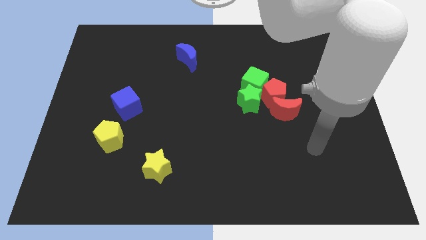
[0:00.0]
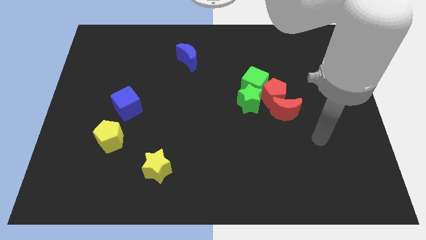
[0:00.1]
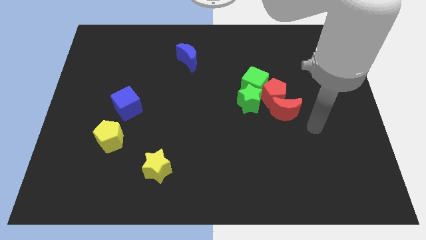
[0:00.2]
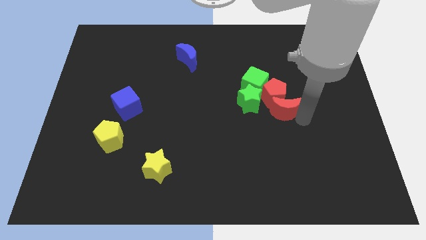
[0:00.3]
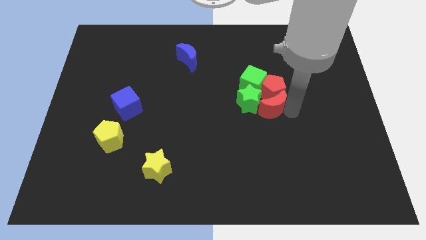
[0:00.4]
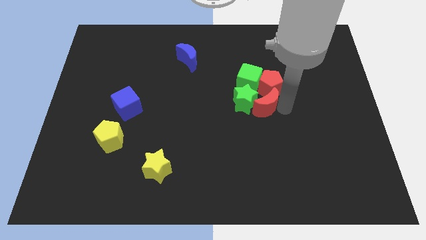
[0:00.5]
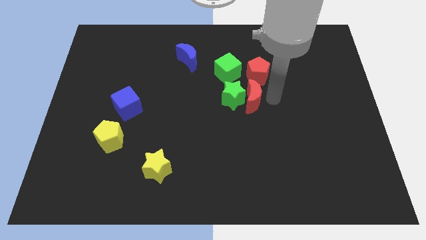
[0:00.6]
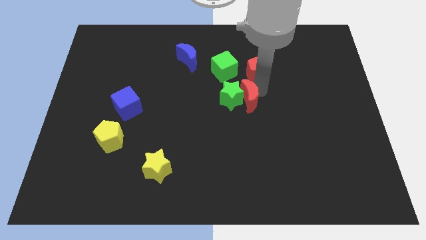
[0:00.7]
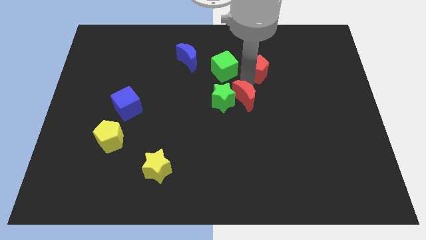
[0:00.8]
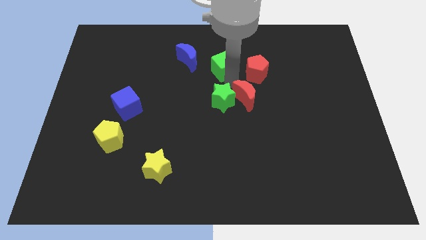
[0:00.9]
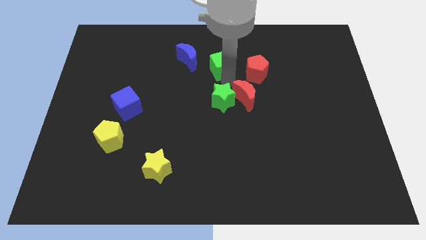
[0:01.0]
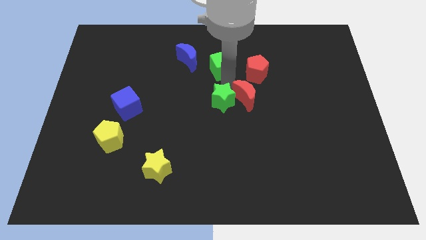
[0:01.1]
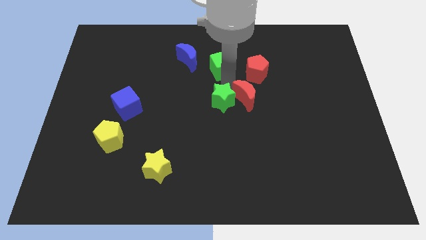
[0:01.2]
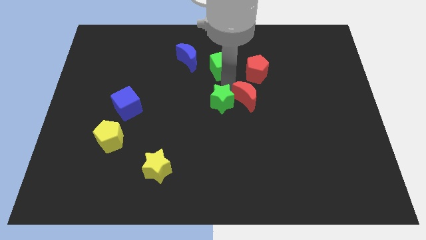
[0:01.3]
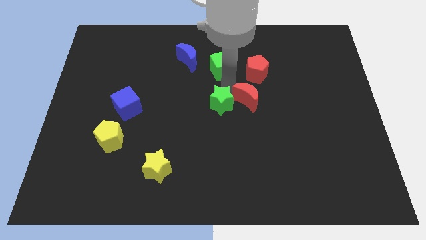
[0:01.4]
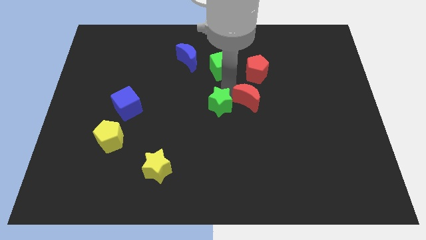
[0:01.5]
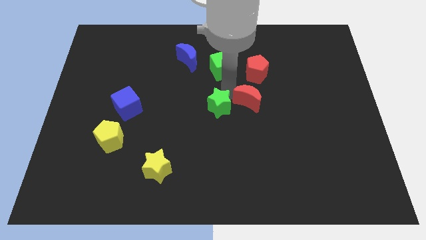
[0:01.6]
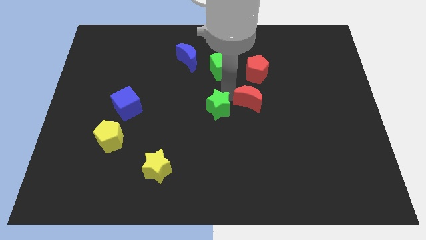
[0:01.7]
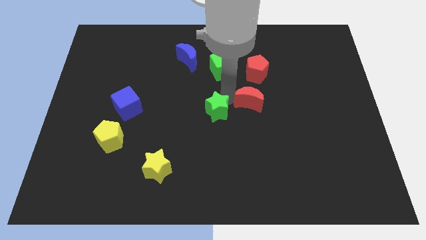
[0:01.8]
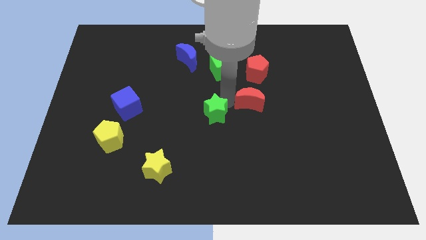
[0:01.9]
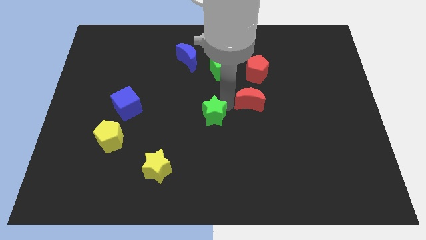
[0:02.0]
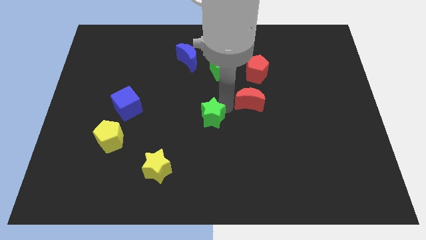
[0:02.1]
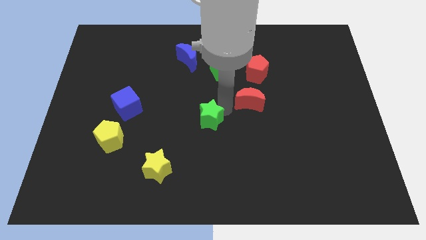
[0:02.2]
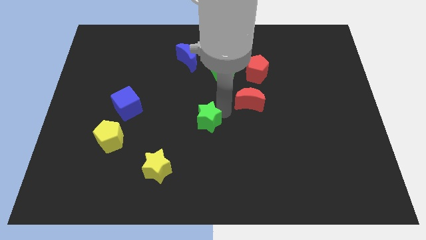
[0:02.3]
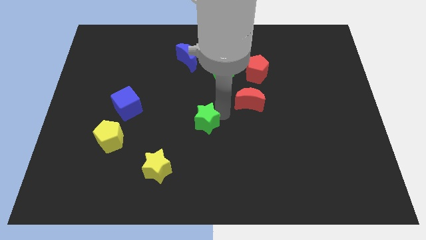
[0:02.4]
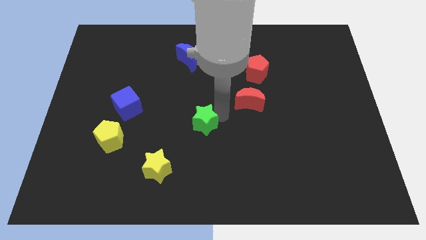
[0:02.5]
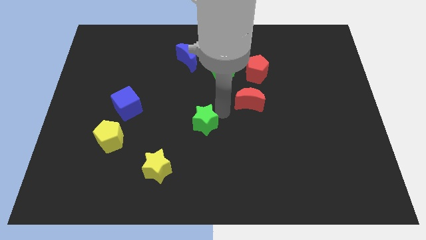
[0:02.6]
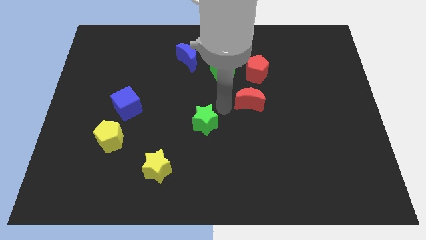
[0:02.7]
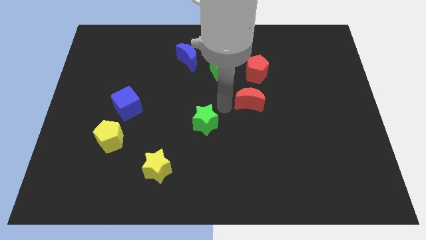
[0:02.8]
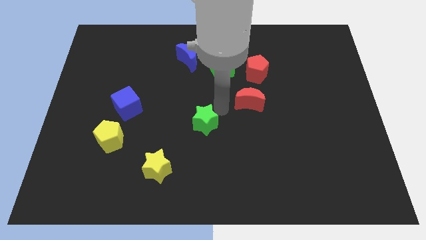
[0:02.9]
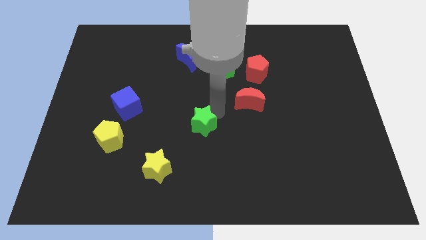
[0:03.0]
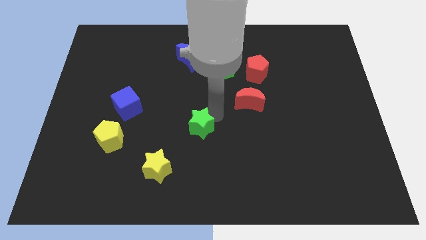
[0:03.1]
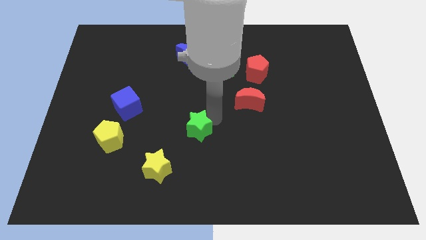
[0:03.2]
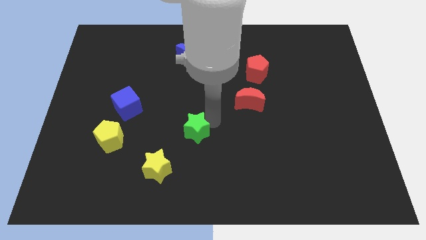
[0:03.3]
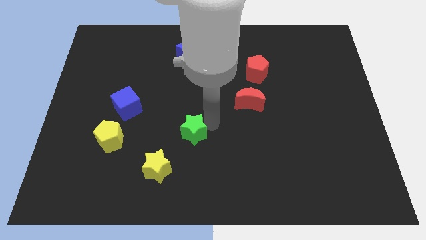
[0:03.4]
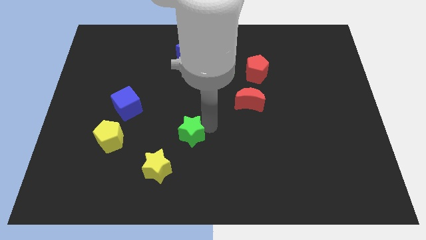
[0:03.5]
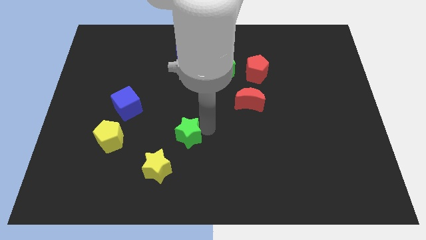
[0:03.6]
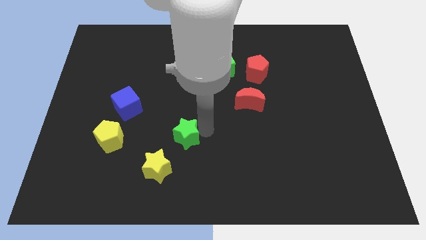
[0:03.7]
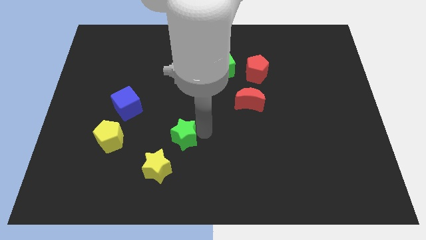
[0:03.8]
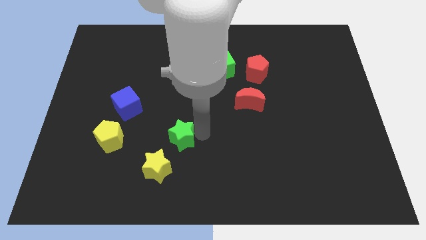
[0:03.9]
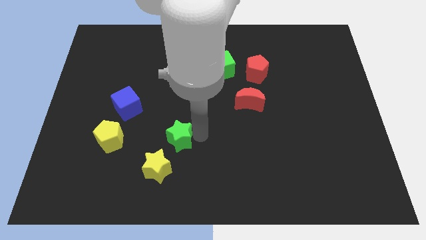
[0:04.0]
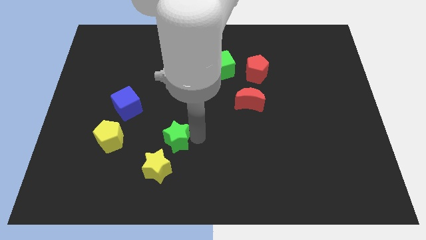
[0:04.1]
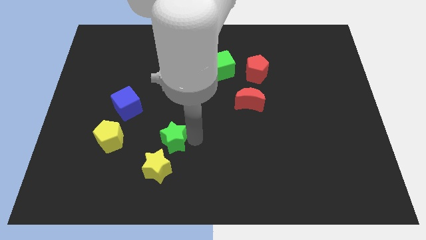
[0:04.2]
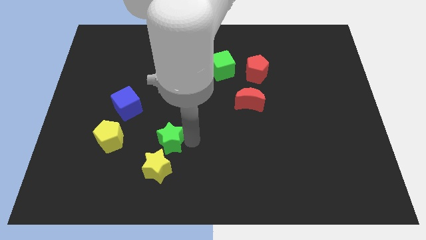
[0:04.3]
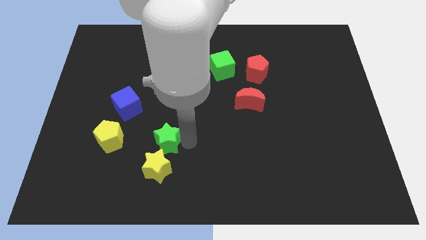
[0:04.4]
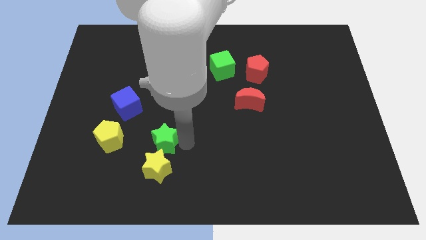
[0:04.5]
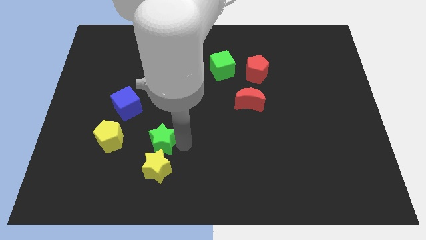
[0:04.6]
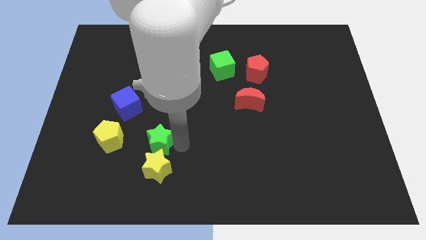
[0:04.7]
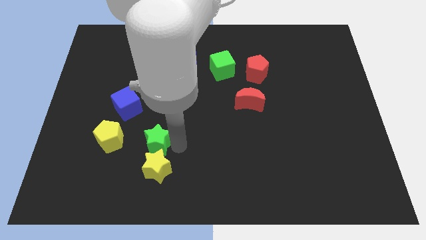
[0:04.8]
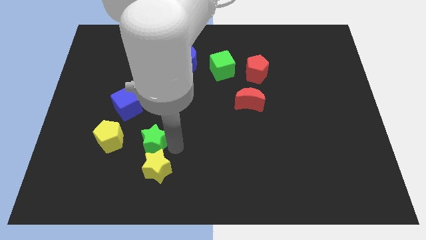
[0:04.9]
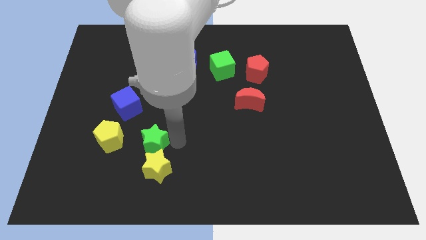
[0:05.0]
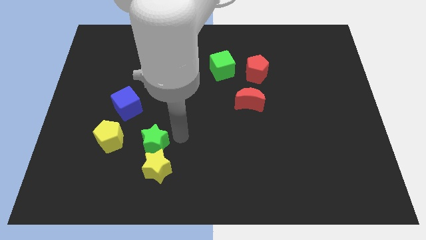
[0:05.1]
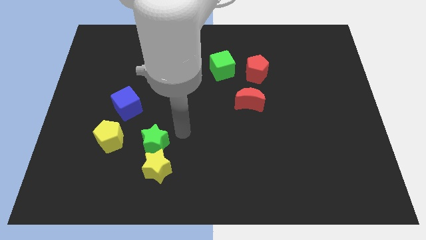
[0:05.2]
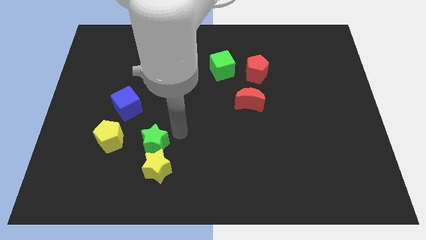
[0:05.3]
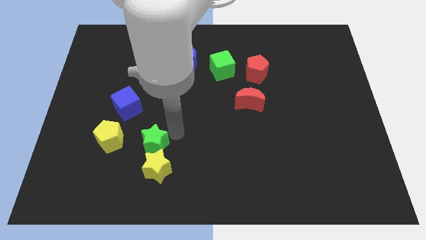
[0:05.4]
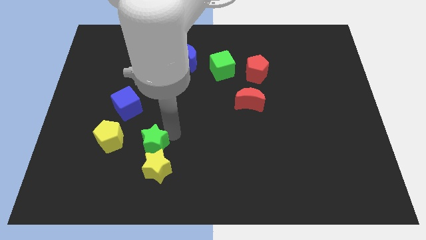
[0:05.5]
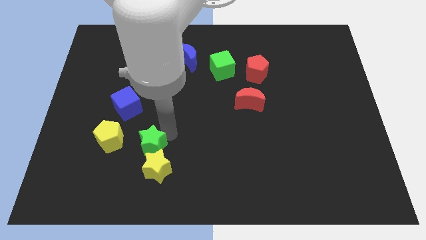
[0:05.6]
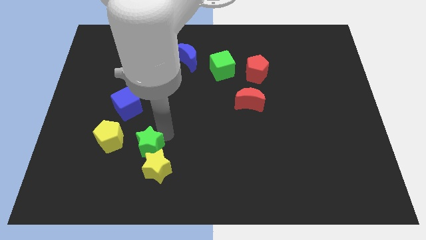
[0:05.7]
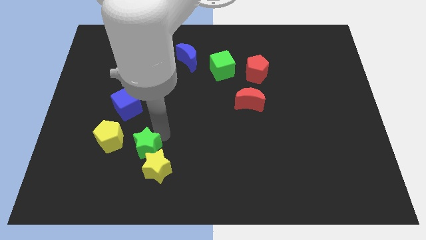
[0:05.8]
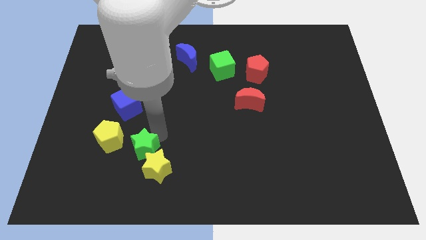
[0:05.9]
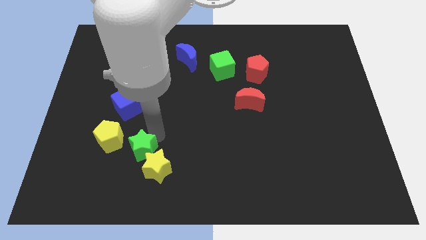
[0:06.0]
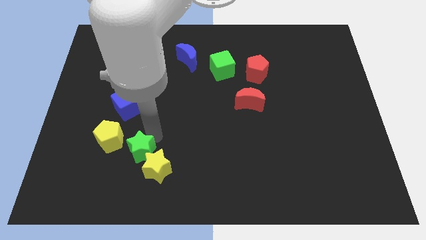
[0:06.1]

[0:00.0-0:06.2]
push the green star to the left of the yellow star
